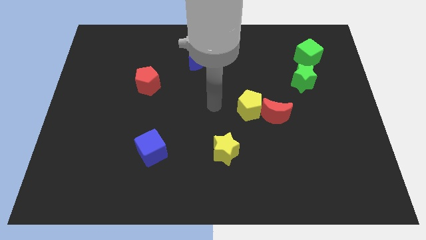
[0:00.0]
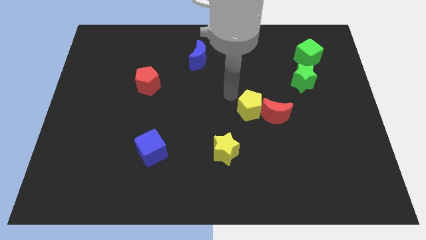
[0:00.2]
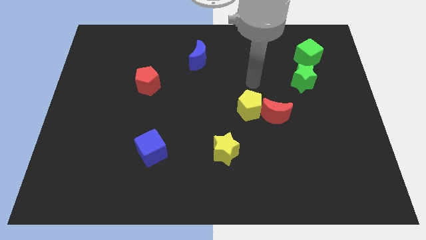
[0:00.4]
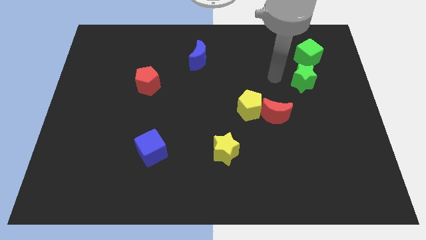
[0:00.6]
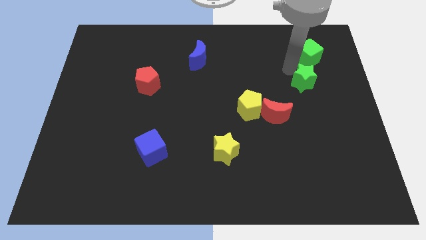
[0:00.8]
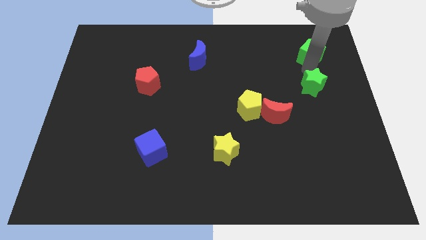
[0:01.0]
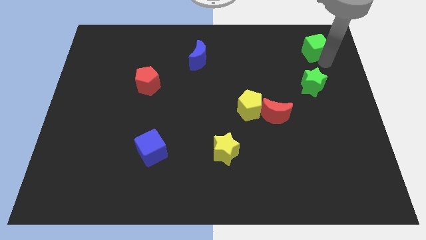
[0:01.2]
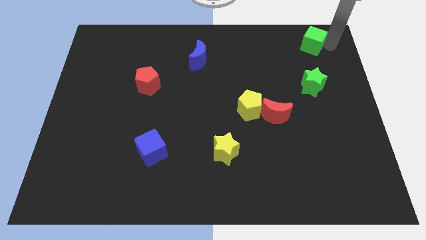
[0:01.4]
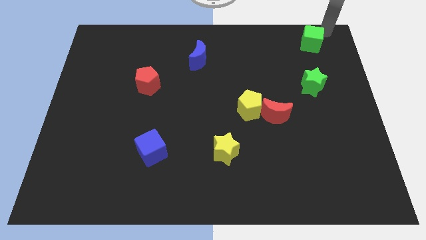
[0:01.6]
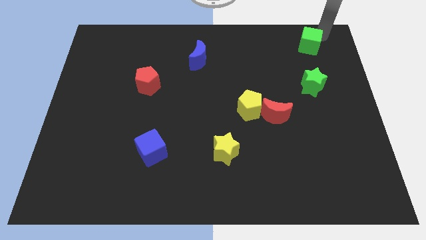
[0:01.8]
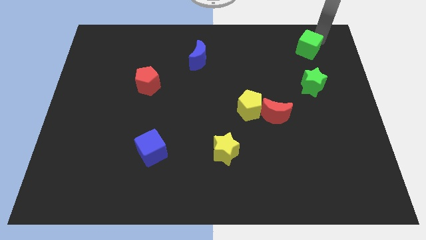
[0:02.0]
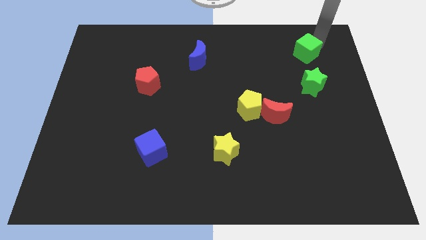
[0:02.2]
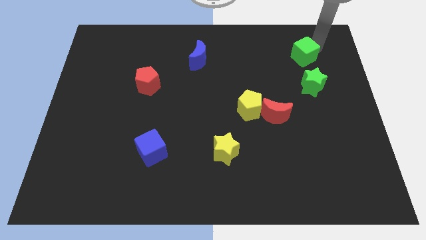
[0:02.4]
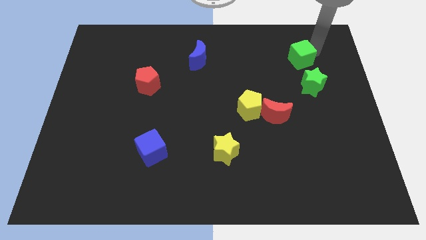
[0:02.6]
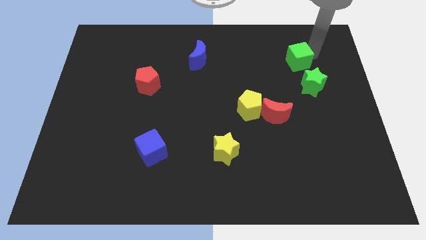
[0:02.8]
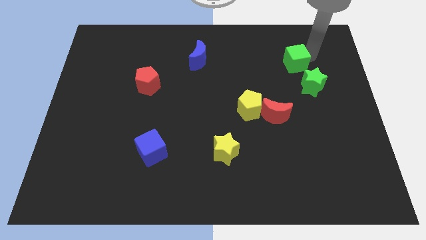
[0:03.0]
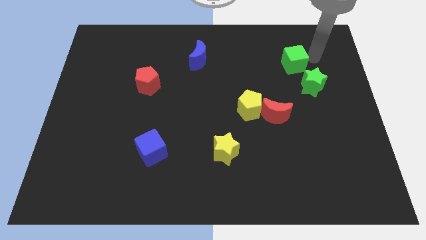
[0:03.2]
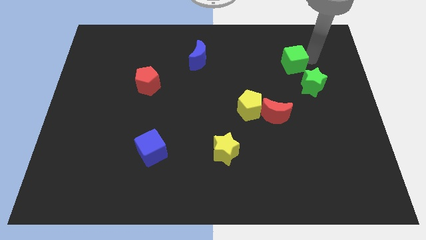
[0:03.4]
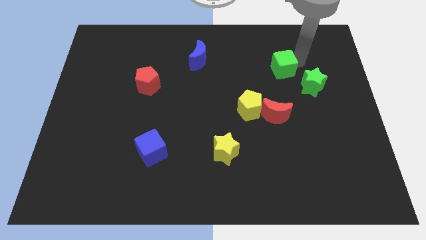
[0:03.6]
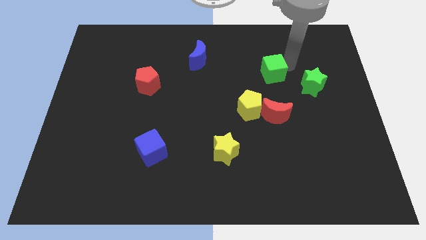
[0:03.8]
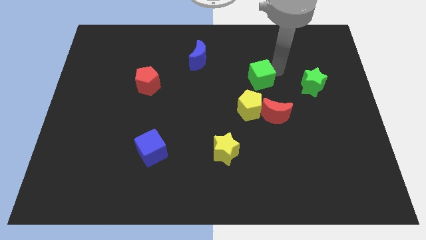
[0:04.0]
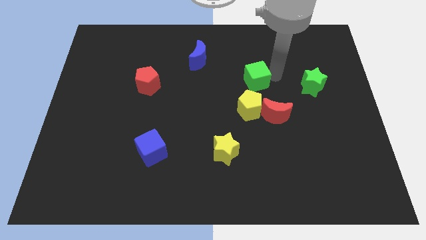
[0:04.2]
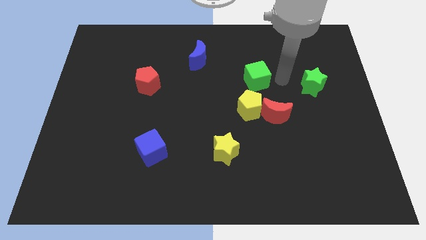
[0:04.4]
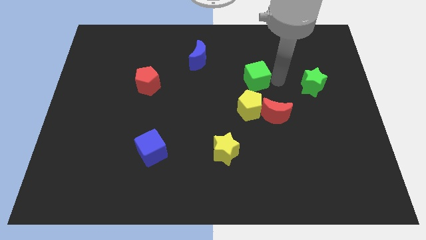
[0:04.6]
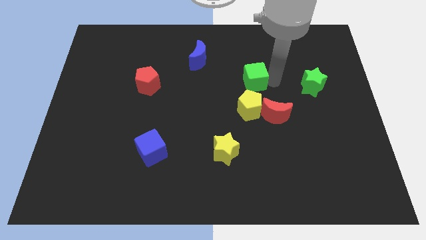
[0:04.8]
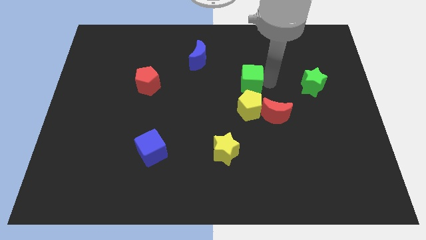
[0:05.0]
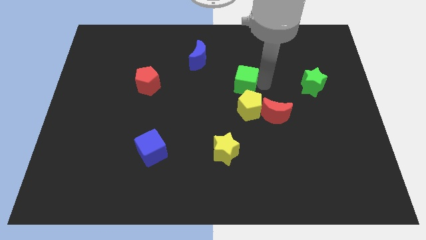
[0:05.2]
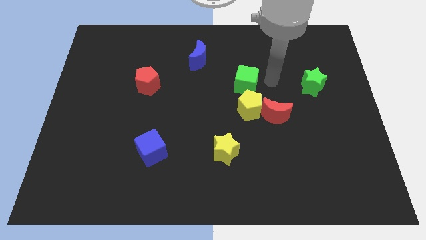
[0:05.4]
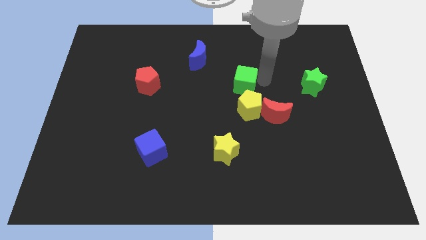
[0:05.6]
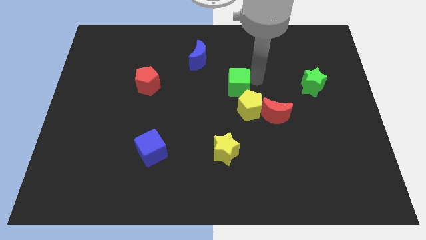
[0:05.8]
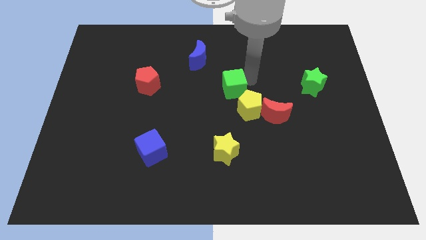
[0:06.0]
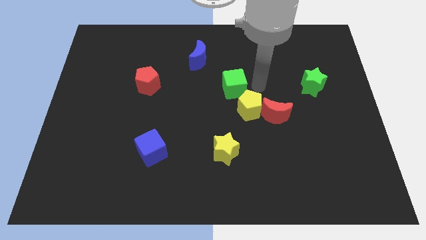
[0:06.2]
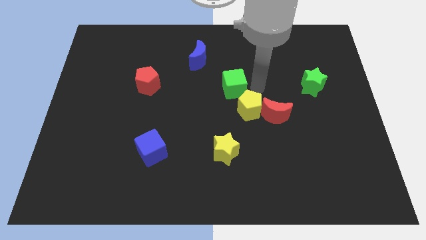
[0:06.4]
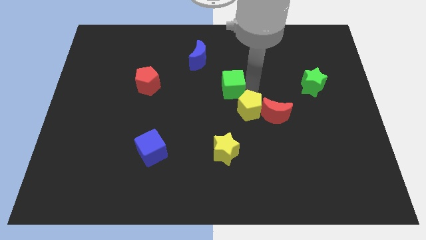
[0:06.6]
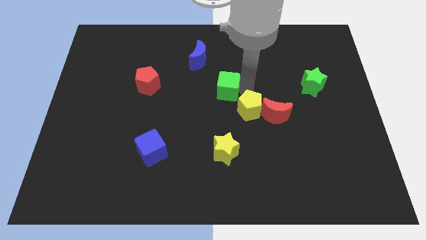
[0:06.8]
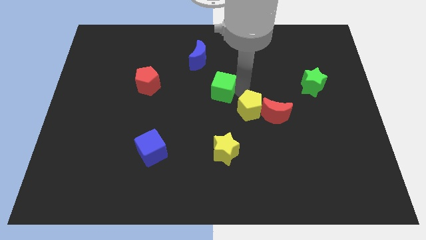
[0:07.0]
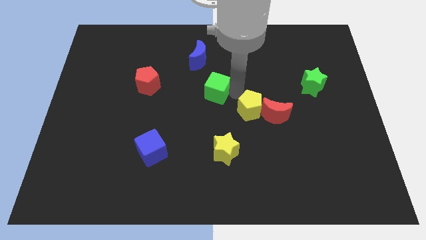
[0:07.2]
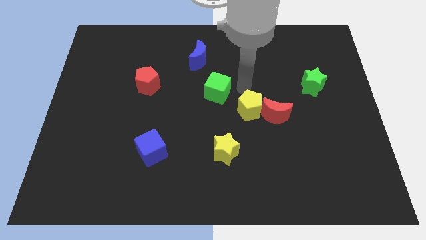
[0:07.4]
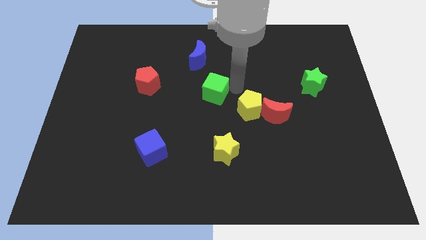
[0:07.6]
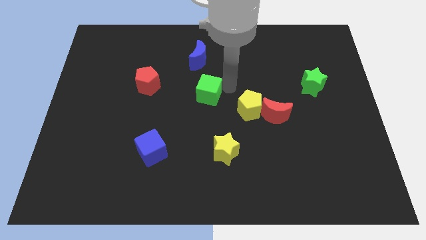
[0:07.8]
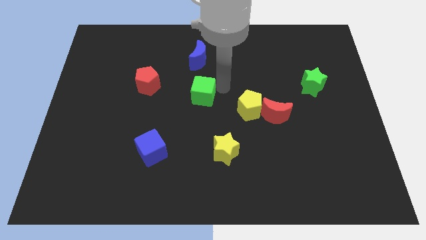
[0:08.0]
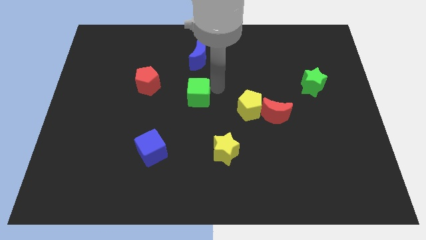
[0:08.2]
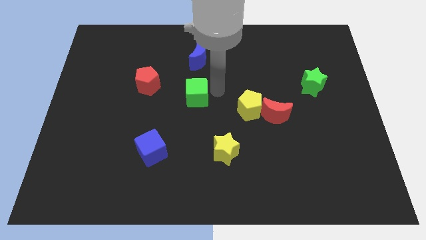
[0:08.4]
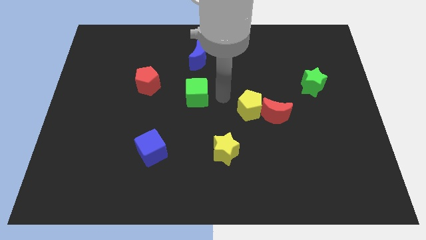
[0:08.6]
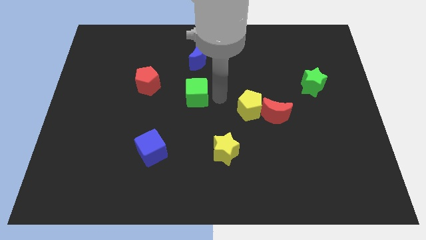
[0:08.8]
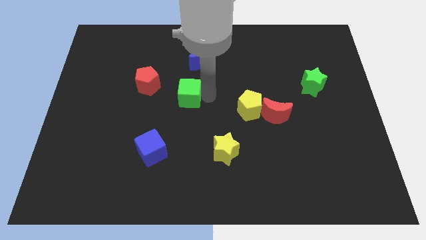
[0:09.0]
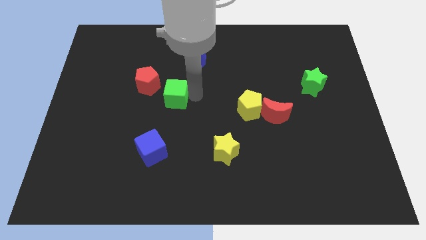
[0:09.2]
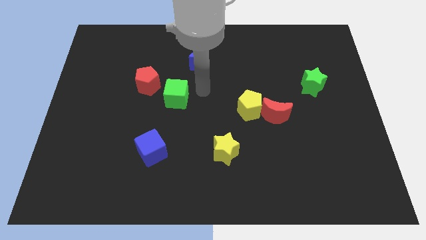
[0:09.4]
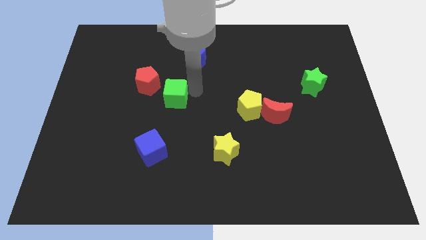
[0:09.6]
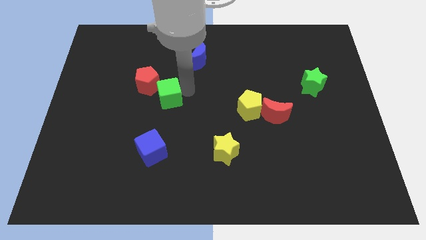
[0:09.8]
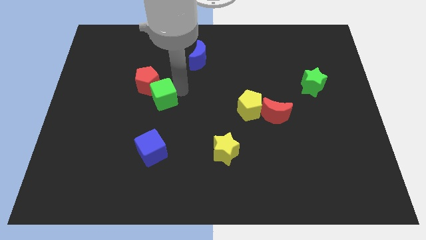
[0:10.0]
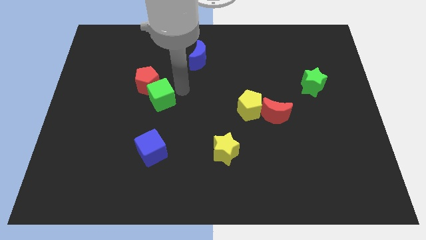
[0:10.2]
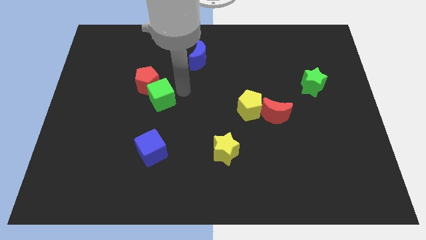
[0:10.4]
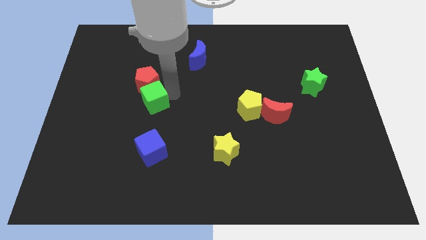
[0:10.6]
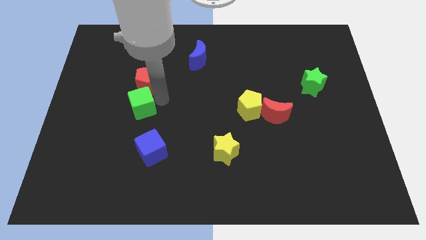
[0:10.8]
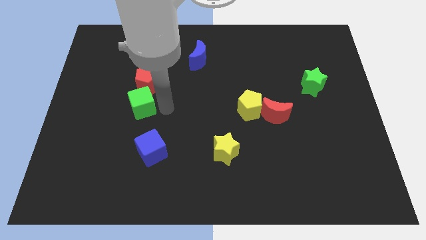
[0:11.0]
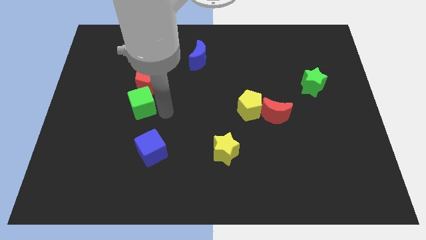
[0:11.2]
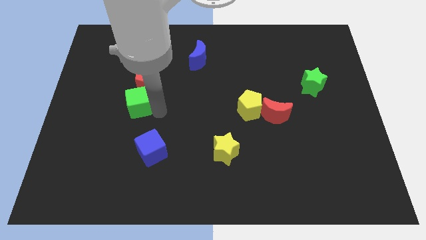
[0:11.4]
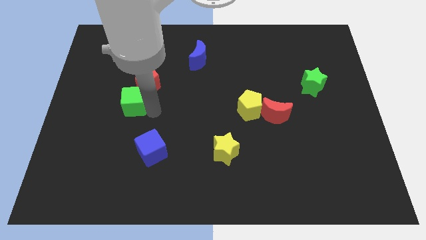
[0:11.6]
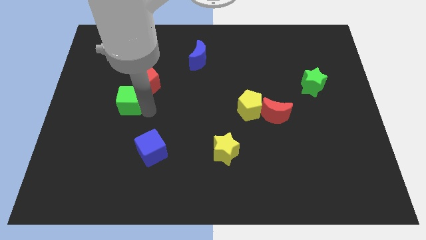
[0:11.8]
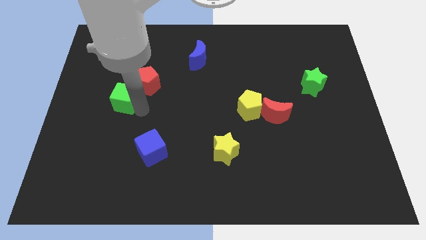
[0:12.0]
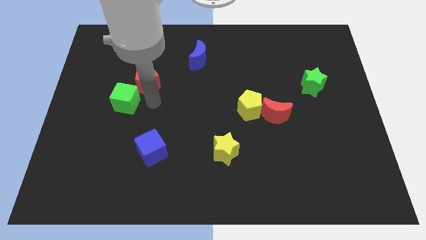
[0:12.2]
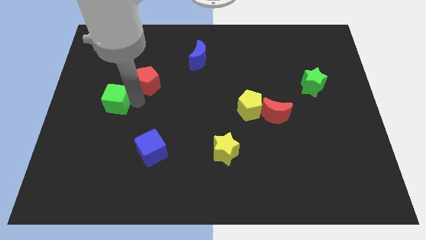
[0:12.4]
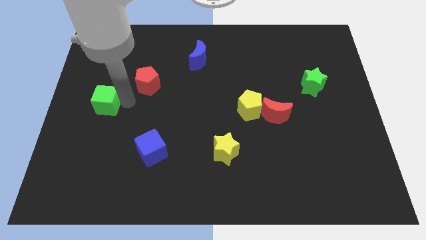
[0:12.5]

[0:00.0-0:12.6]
slide the green cube to the left side

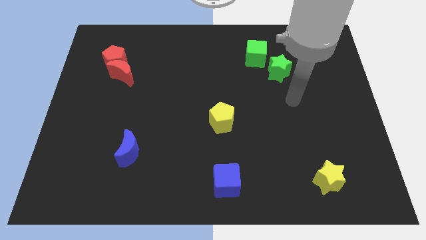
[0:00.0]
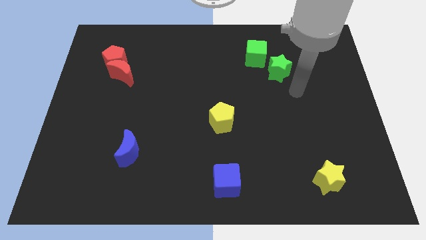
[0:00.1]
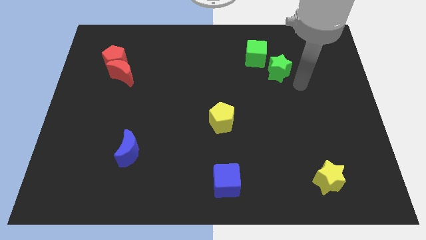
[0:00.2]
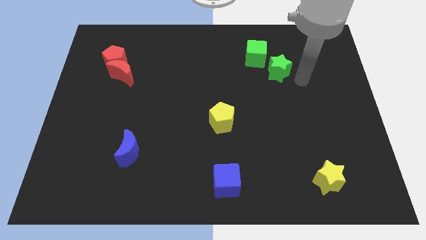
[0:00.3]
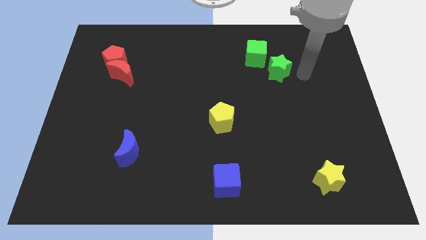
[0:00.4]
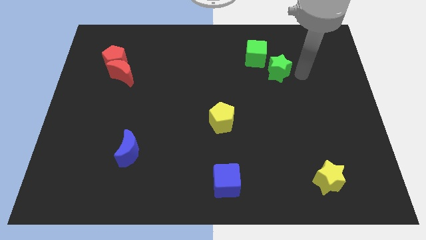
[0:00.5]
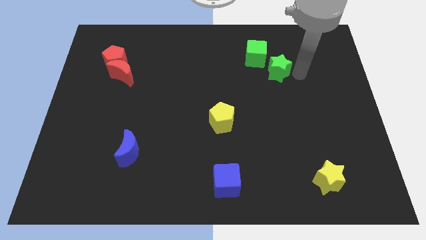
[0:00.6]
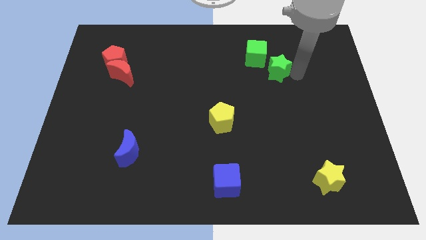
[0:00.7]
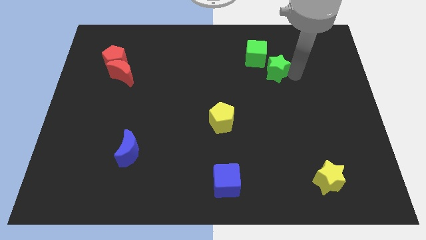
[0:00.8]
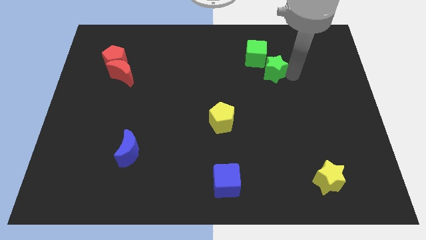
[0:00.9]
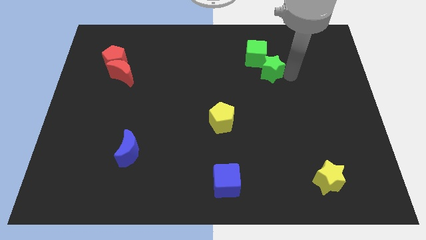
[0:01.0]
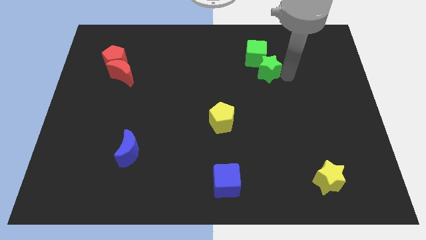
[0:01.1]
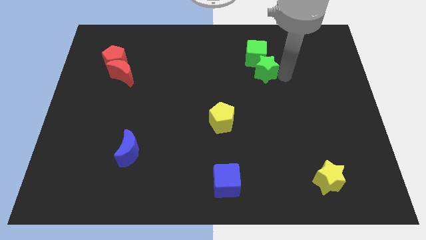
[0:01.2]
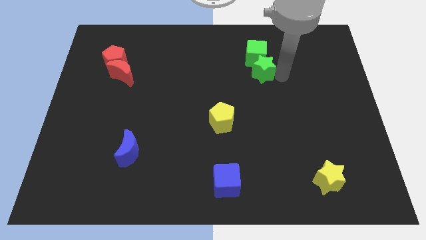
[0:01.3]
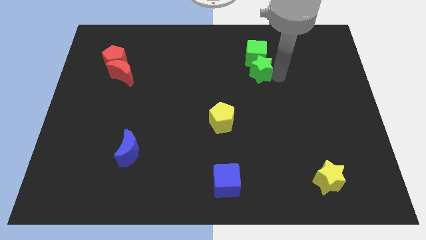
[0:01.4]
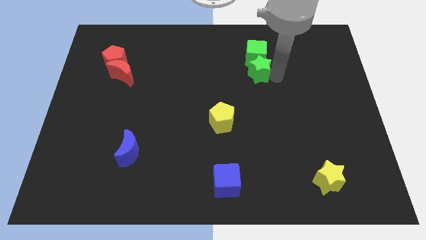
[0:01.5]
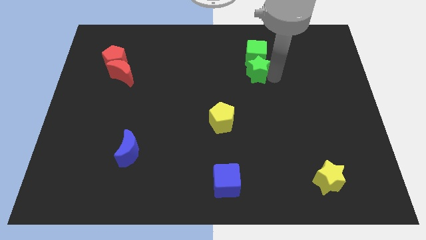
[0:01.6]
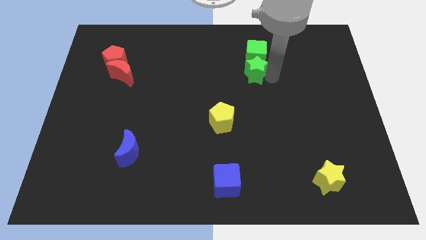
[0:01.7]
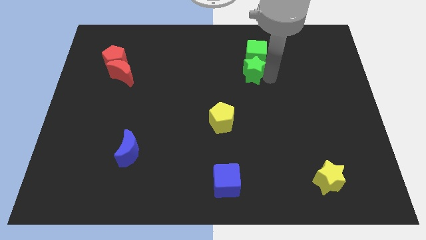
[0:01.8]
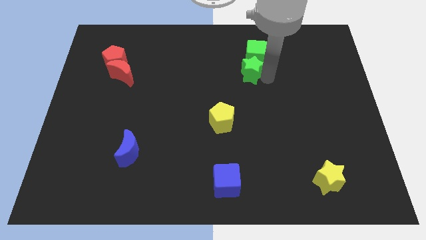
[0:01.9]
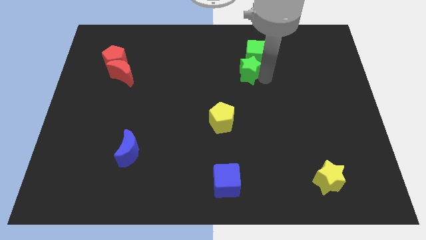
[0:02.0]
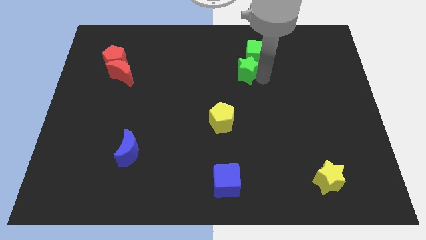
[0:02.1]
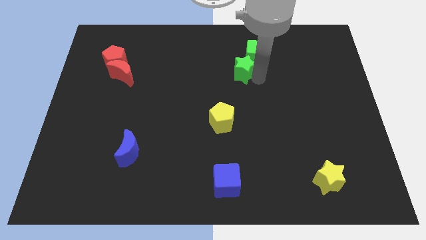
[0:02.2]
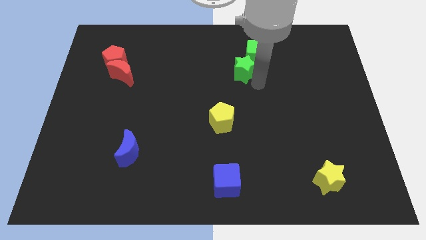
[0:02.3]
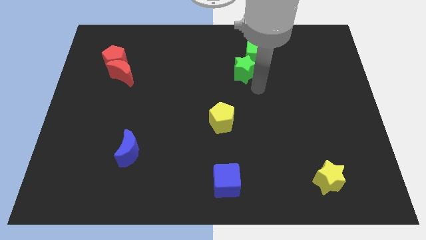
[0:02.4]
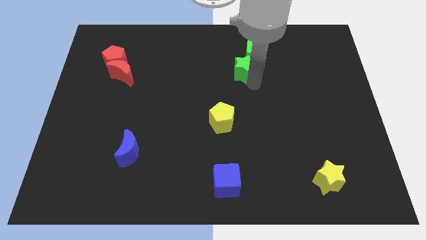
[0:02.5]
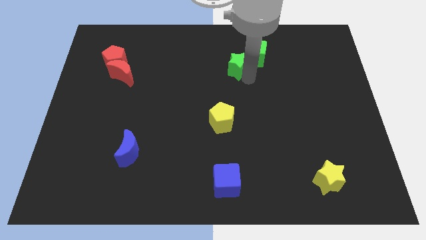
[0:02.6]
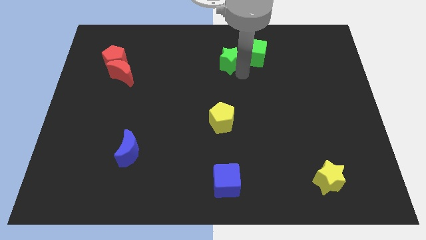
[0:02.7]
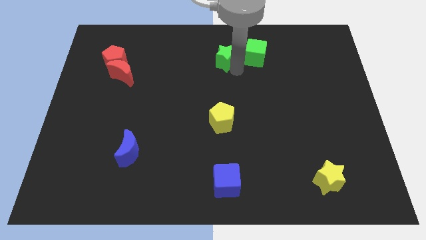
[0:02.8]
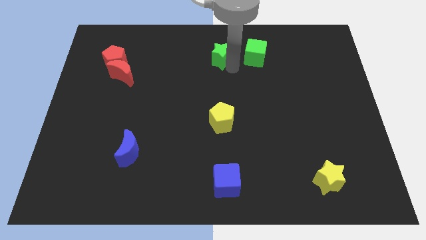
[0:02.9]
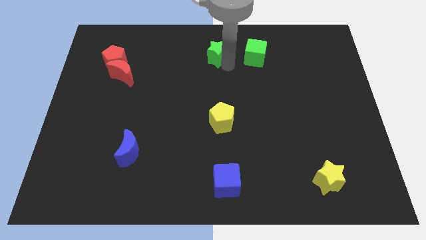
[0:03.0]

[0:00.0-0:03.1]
push the green star to the top
